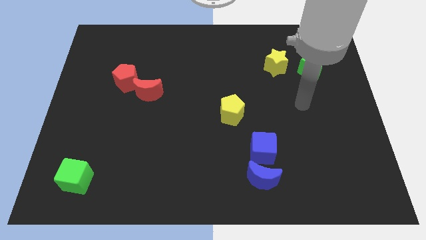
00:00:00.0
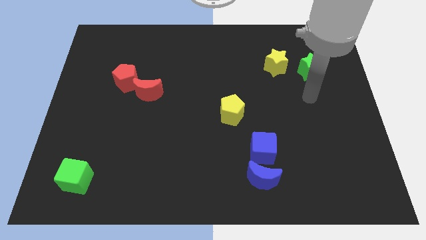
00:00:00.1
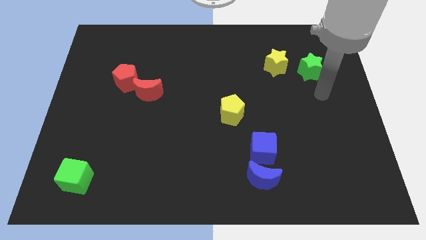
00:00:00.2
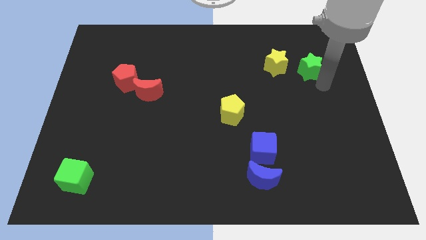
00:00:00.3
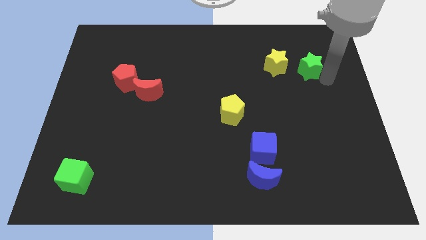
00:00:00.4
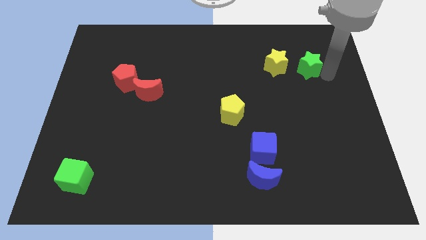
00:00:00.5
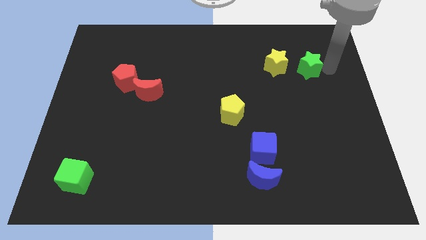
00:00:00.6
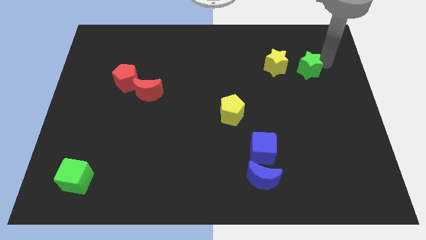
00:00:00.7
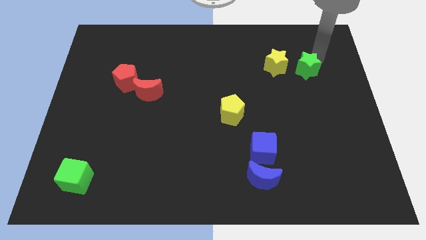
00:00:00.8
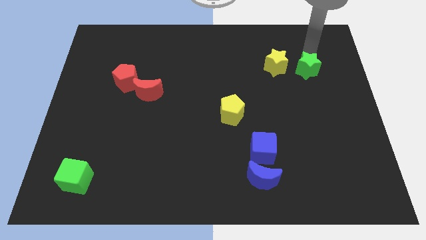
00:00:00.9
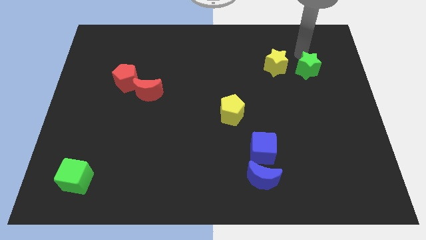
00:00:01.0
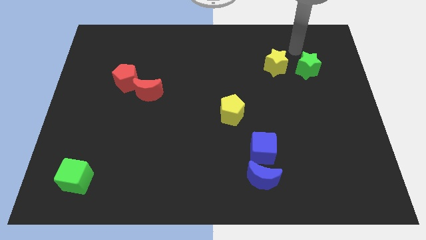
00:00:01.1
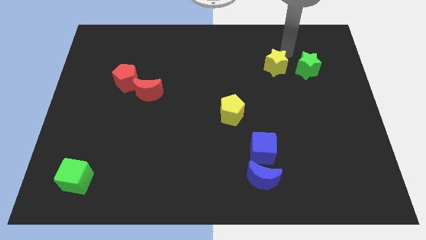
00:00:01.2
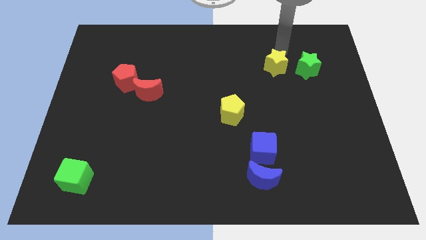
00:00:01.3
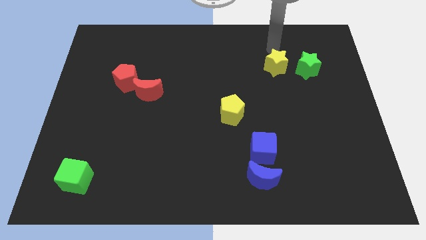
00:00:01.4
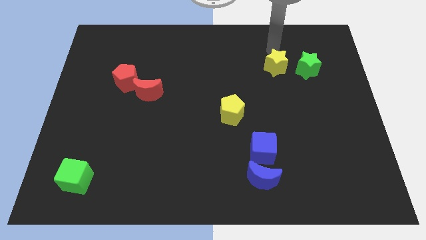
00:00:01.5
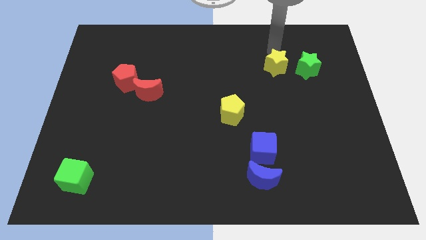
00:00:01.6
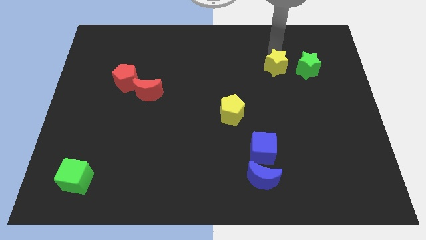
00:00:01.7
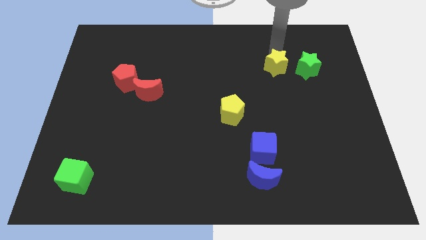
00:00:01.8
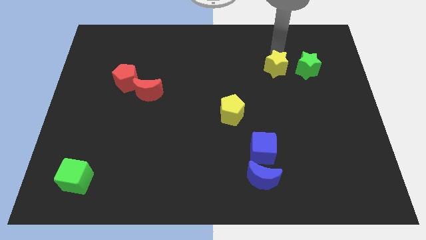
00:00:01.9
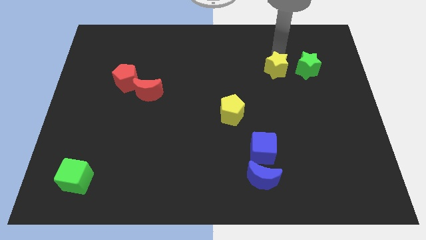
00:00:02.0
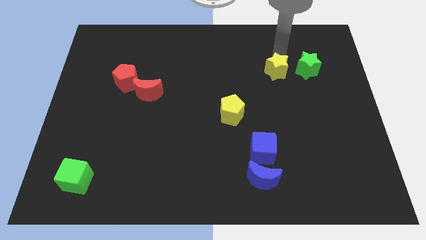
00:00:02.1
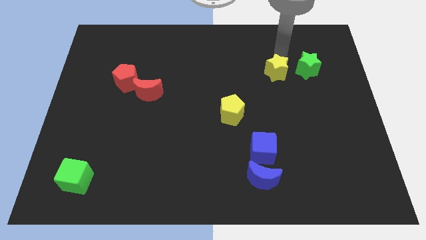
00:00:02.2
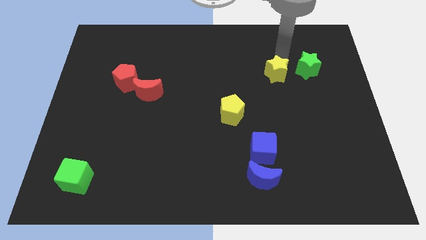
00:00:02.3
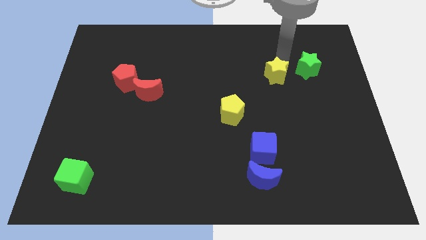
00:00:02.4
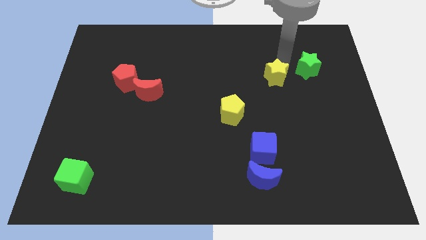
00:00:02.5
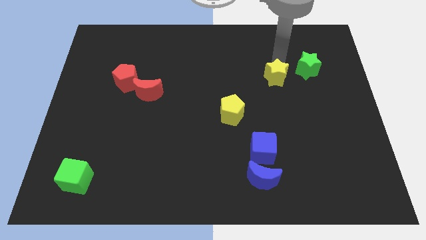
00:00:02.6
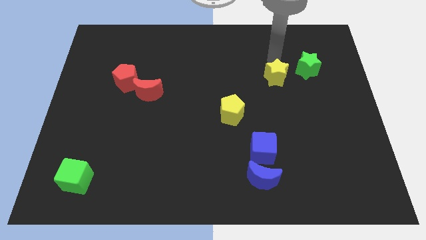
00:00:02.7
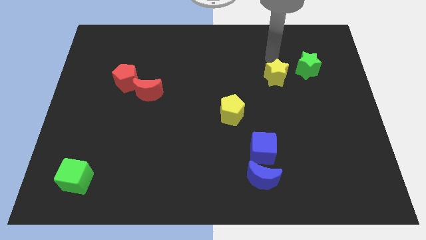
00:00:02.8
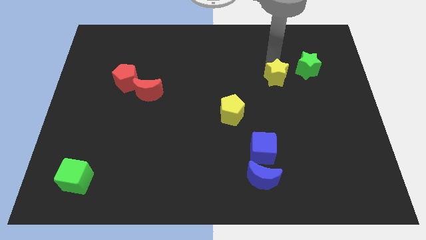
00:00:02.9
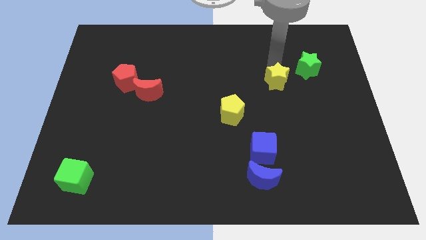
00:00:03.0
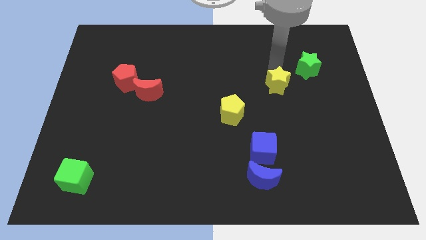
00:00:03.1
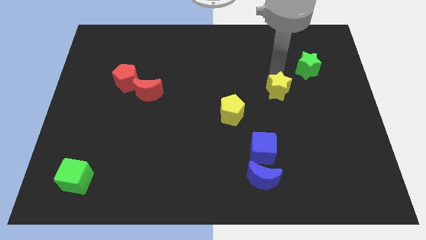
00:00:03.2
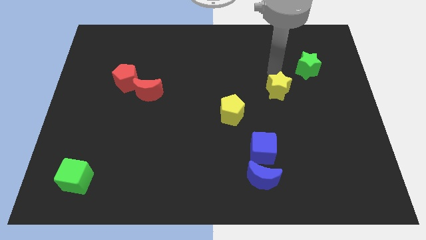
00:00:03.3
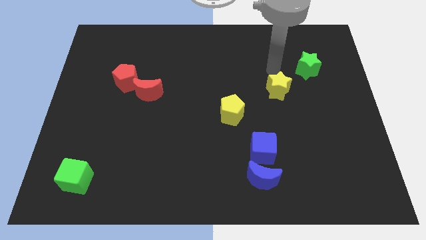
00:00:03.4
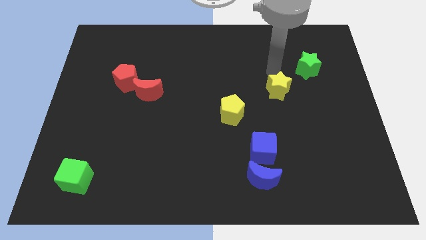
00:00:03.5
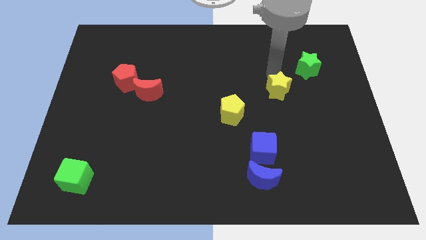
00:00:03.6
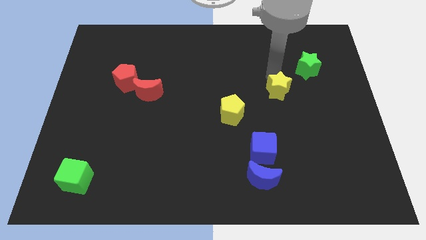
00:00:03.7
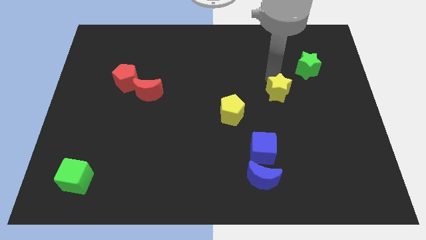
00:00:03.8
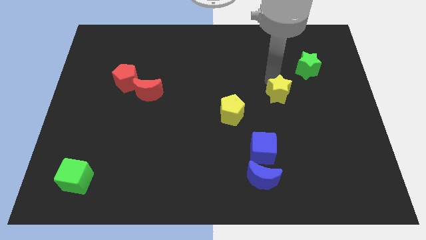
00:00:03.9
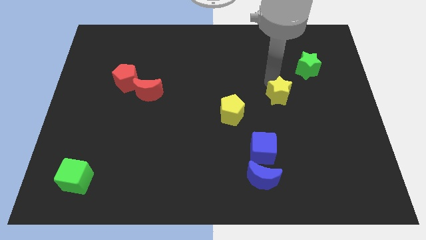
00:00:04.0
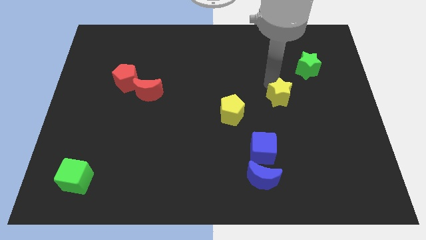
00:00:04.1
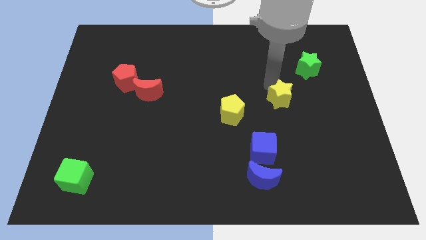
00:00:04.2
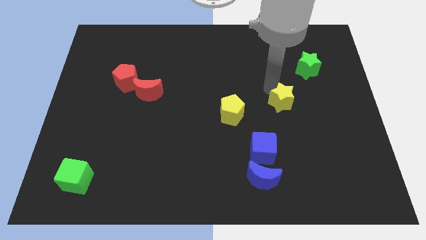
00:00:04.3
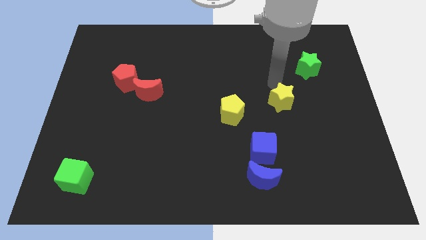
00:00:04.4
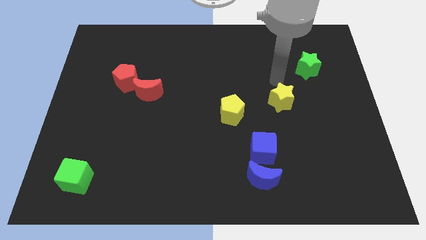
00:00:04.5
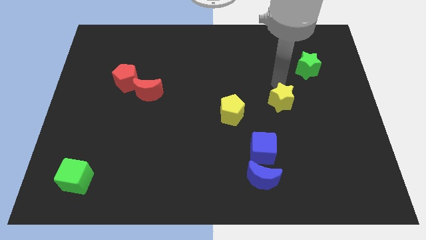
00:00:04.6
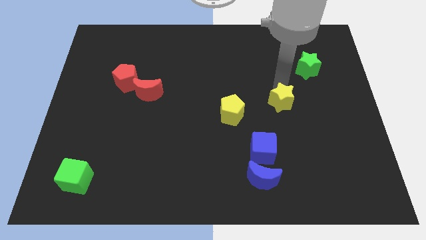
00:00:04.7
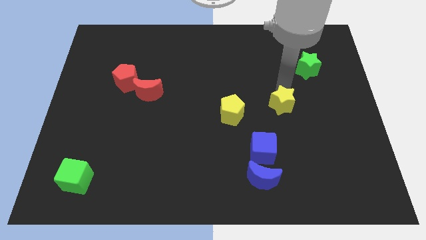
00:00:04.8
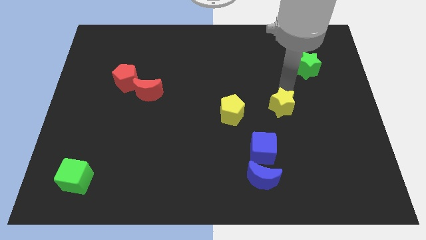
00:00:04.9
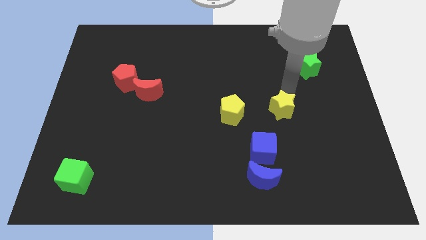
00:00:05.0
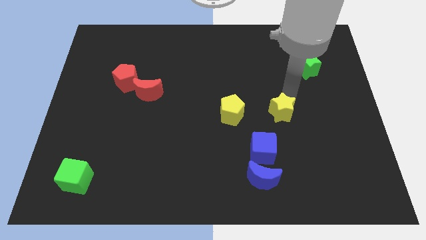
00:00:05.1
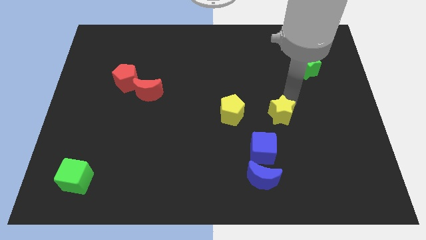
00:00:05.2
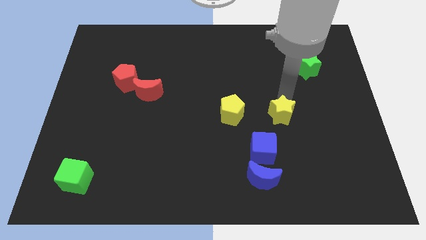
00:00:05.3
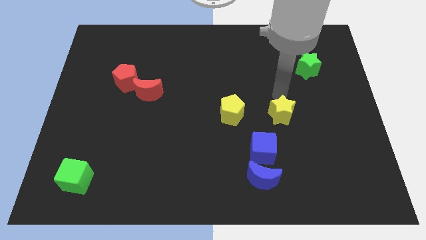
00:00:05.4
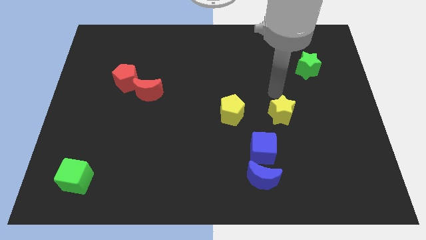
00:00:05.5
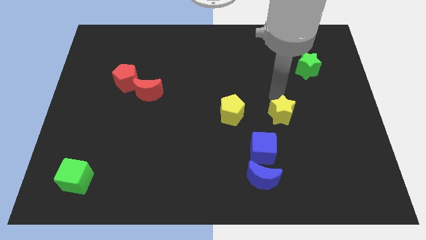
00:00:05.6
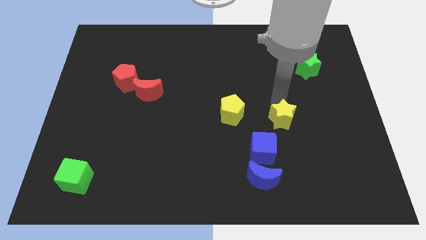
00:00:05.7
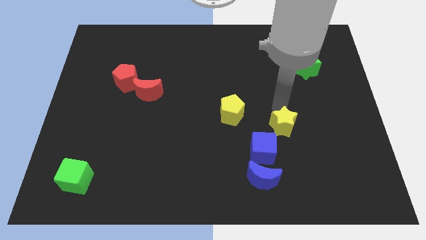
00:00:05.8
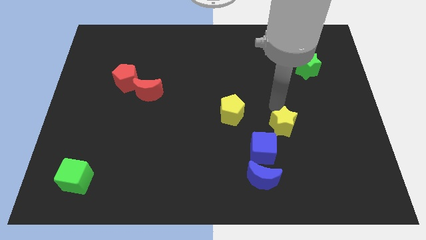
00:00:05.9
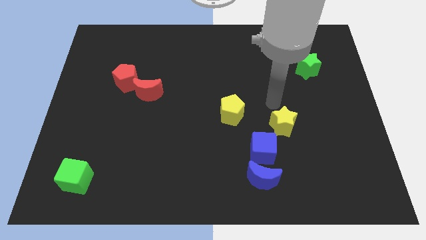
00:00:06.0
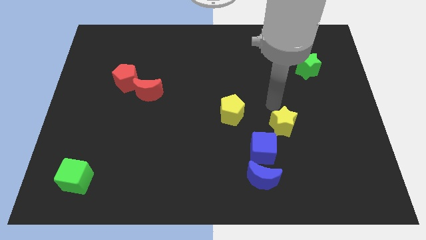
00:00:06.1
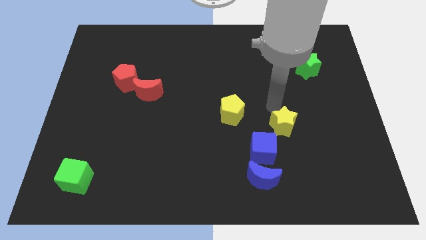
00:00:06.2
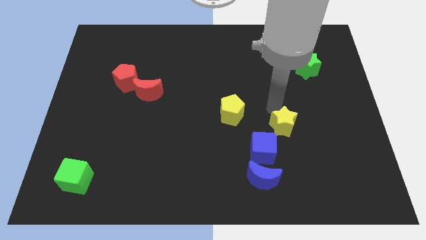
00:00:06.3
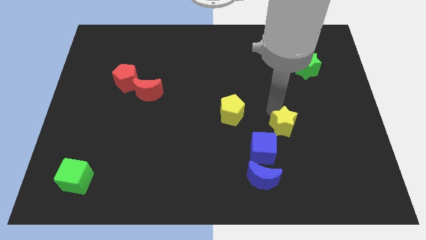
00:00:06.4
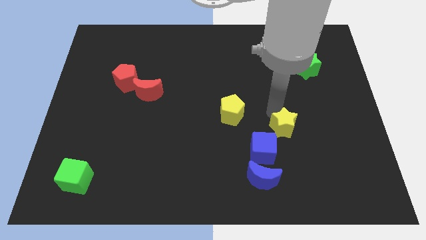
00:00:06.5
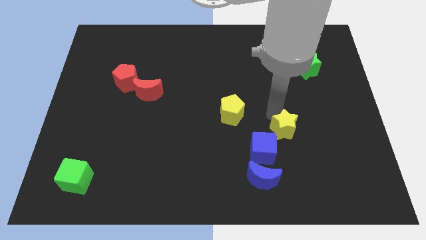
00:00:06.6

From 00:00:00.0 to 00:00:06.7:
push the yellow star downwards

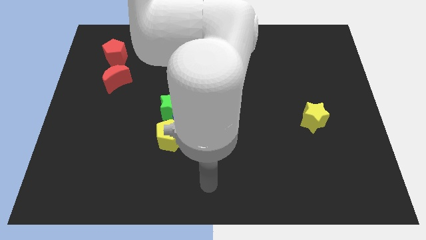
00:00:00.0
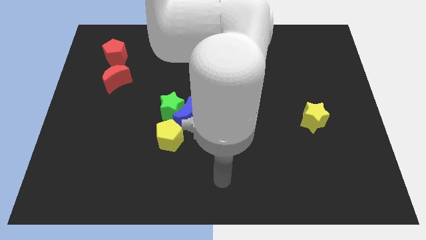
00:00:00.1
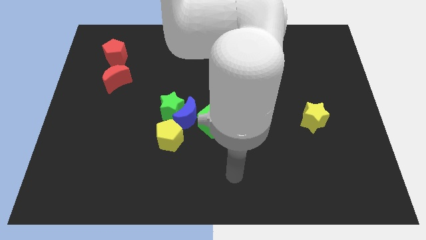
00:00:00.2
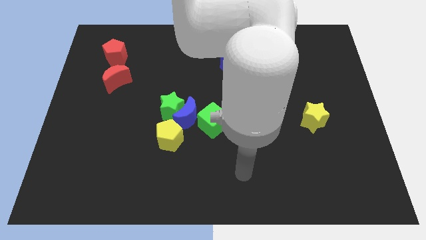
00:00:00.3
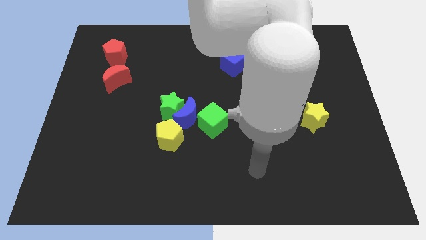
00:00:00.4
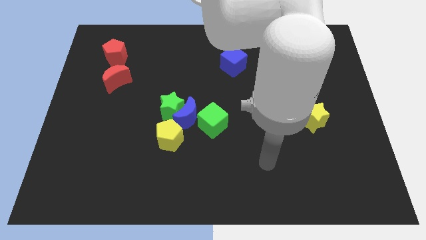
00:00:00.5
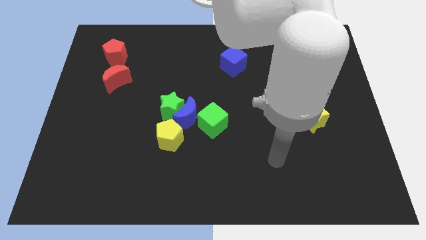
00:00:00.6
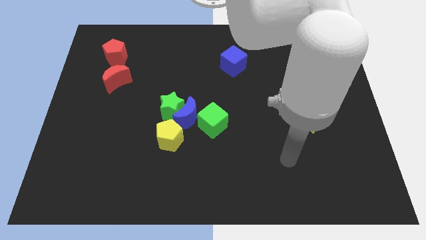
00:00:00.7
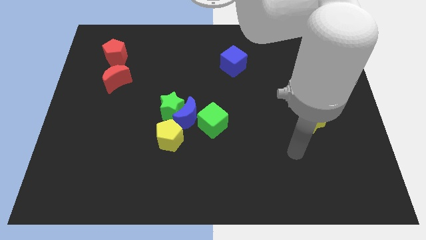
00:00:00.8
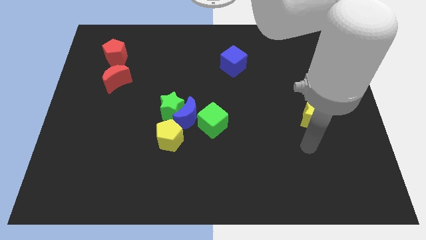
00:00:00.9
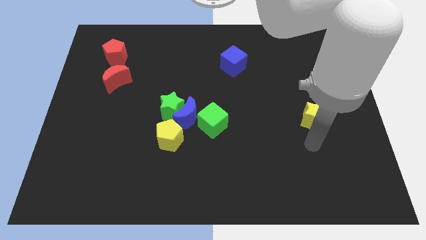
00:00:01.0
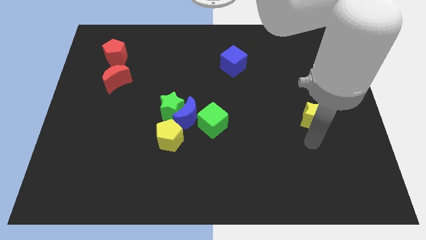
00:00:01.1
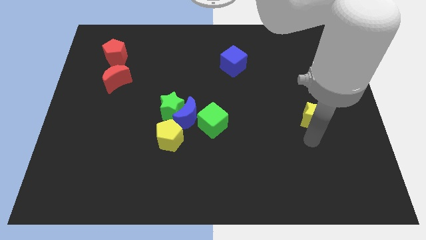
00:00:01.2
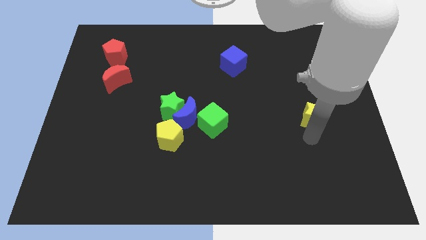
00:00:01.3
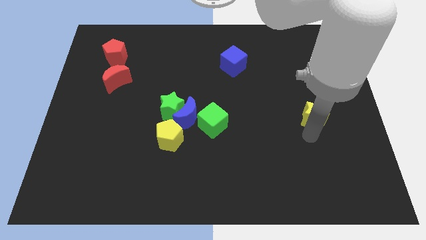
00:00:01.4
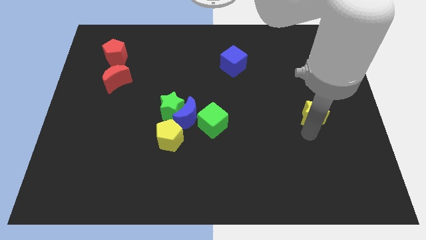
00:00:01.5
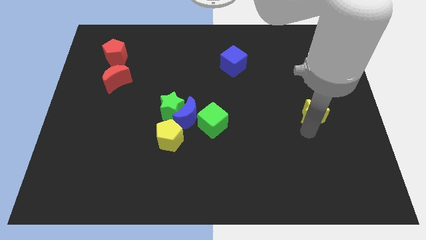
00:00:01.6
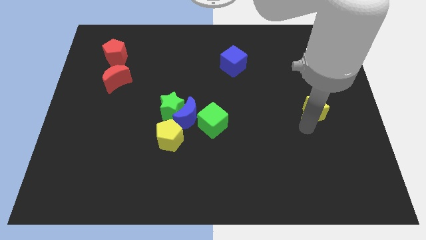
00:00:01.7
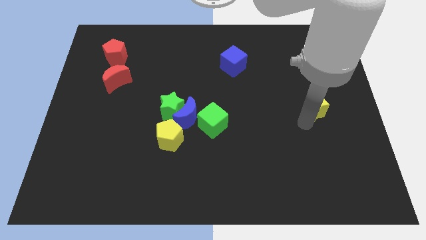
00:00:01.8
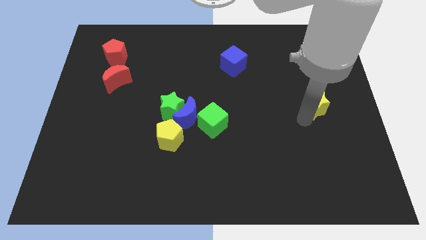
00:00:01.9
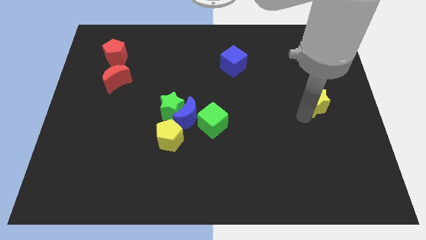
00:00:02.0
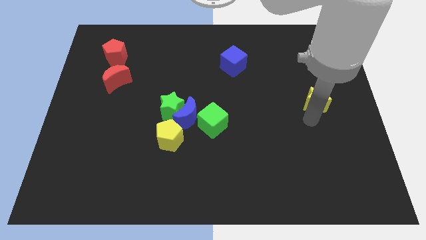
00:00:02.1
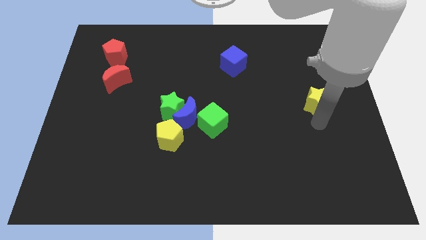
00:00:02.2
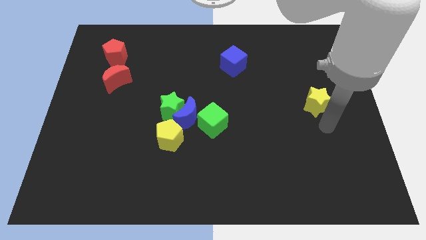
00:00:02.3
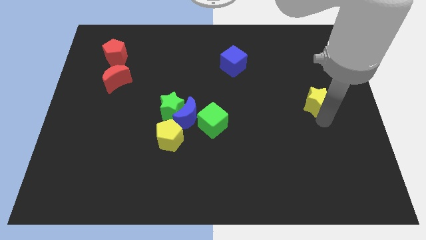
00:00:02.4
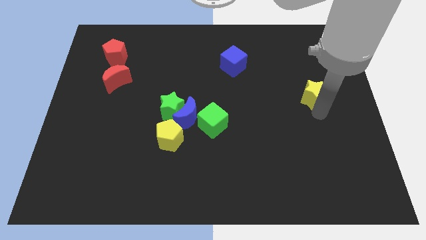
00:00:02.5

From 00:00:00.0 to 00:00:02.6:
push the yellow star upwards a bit
